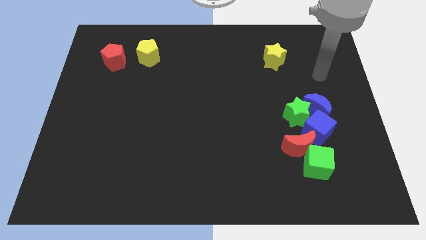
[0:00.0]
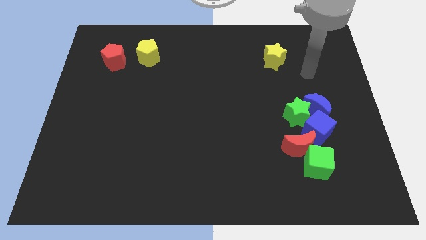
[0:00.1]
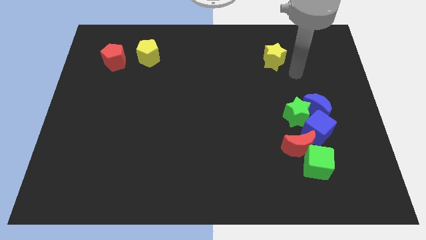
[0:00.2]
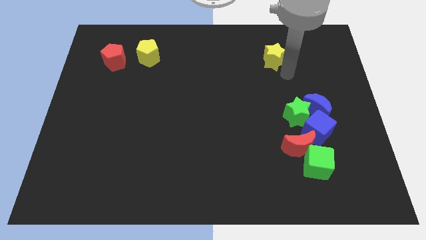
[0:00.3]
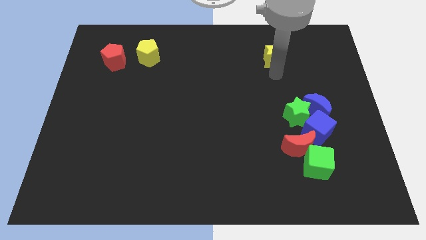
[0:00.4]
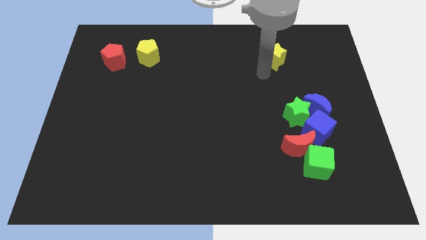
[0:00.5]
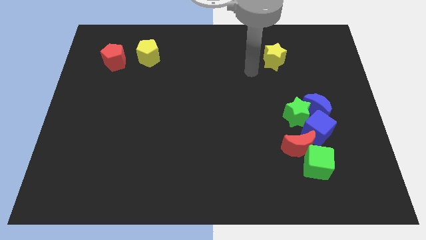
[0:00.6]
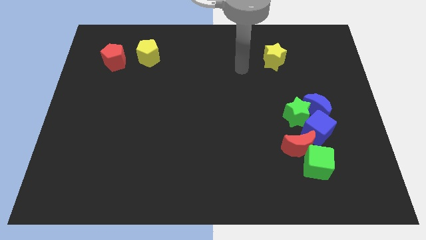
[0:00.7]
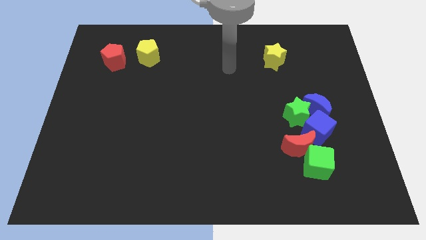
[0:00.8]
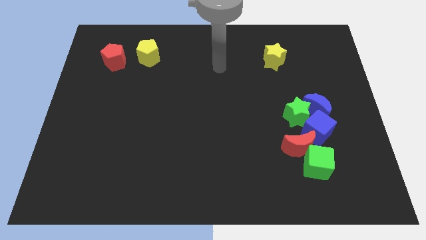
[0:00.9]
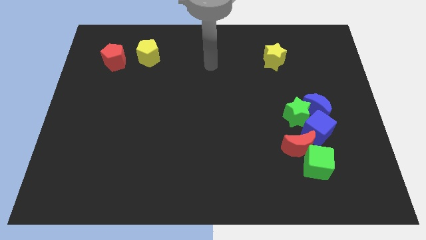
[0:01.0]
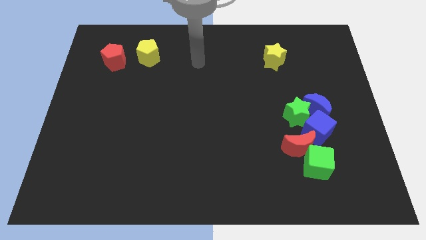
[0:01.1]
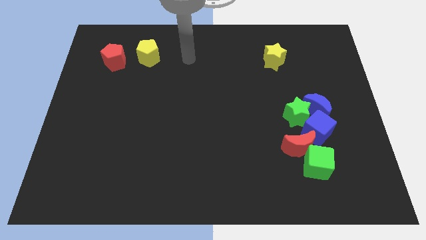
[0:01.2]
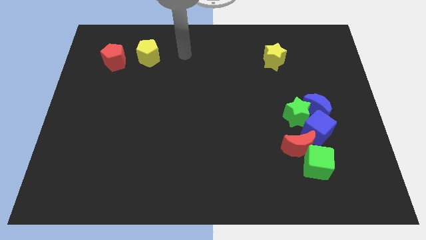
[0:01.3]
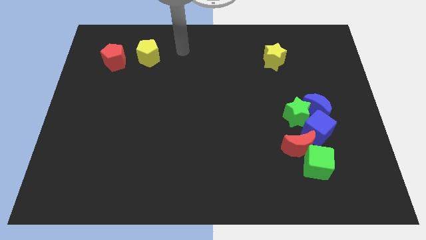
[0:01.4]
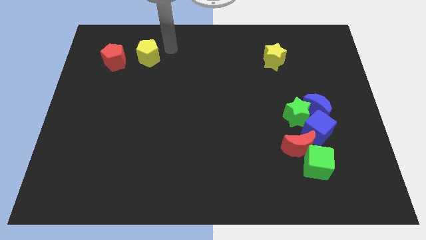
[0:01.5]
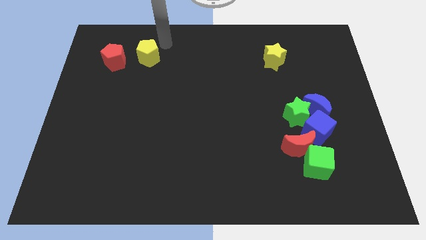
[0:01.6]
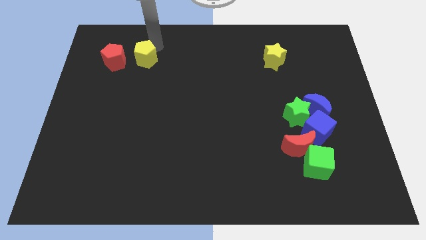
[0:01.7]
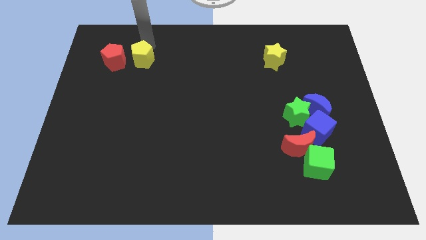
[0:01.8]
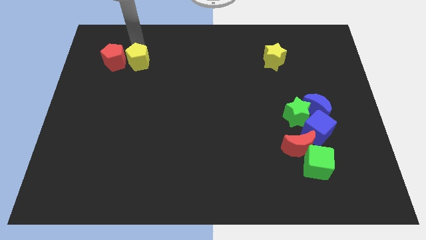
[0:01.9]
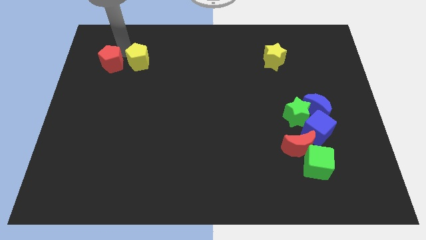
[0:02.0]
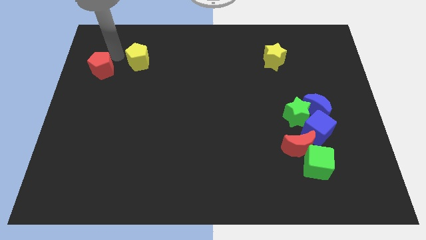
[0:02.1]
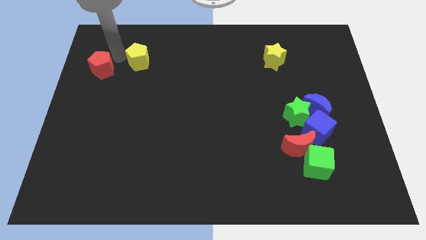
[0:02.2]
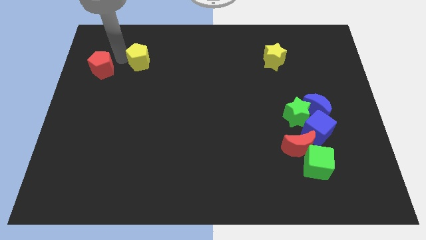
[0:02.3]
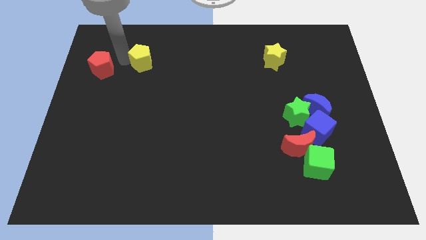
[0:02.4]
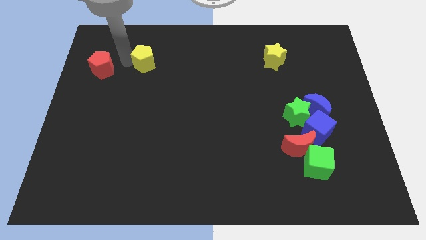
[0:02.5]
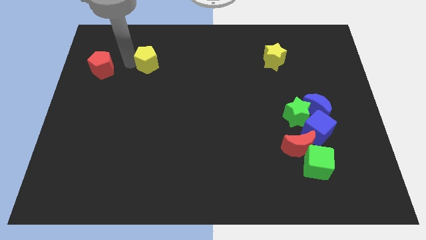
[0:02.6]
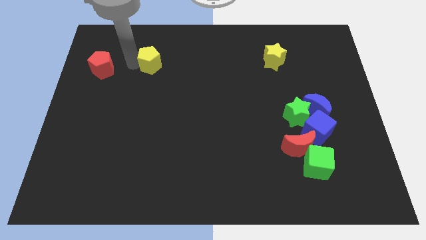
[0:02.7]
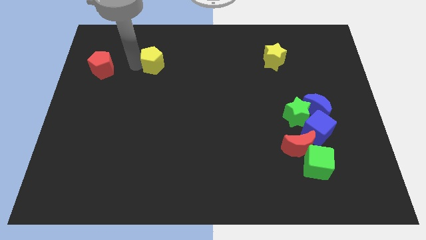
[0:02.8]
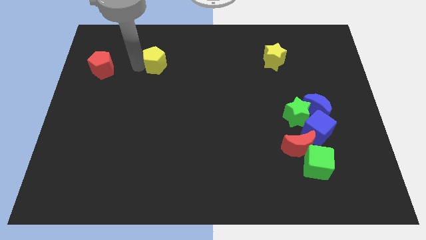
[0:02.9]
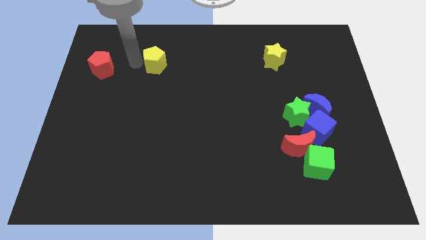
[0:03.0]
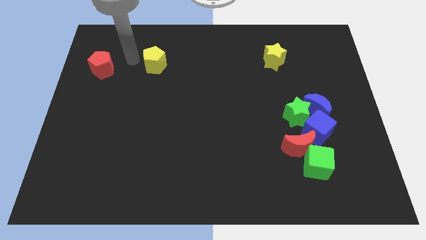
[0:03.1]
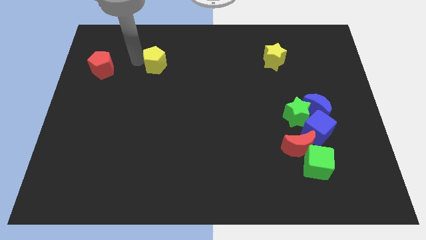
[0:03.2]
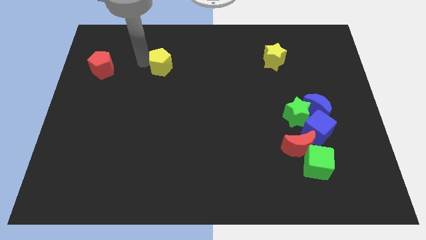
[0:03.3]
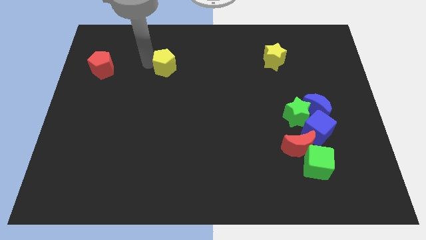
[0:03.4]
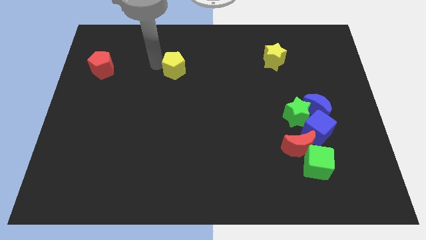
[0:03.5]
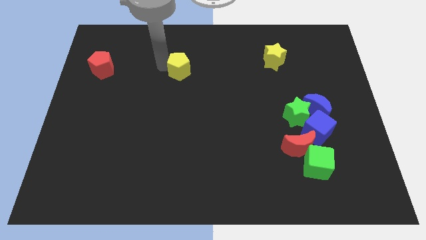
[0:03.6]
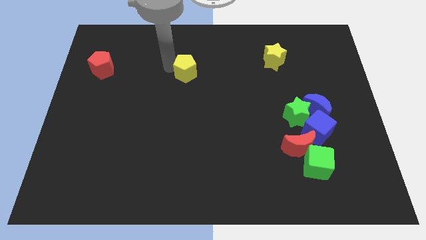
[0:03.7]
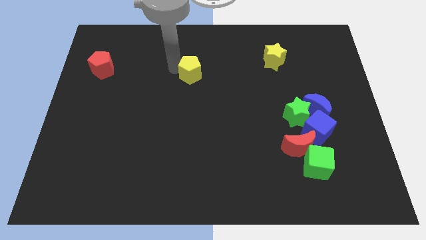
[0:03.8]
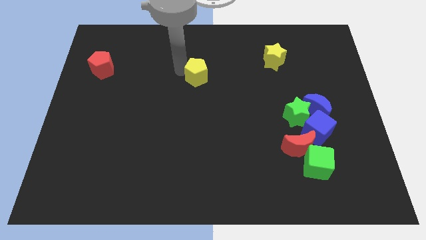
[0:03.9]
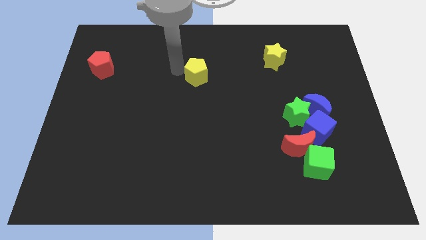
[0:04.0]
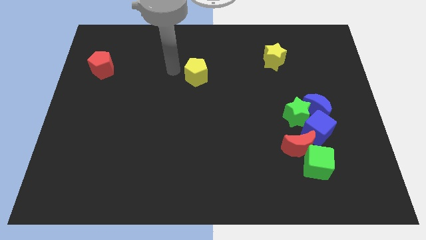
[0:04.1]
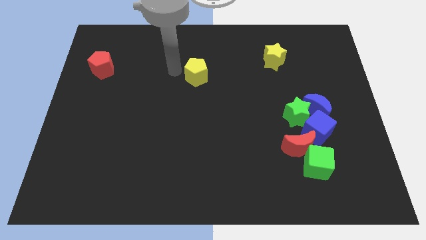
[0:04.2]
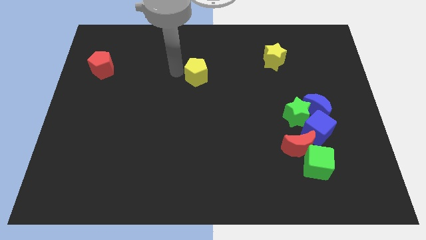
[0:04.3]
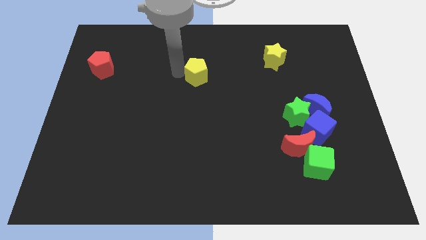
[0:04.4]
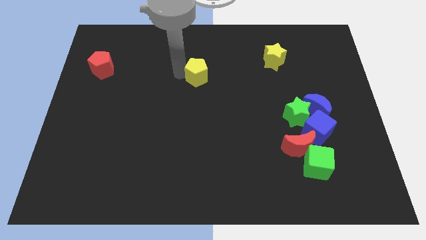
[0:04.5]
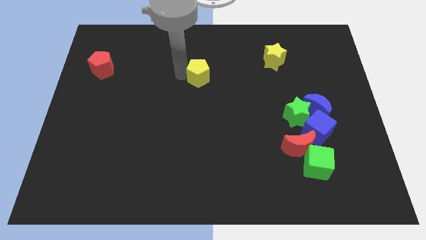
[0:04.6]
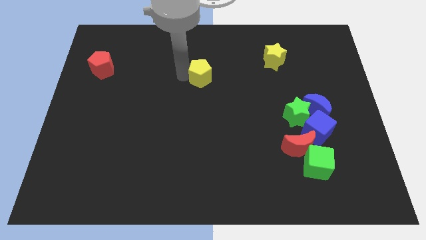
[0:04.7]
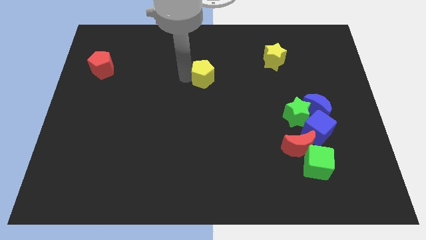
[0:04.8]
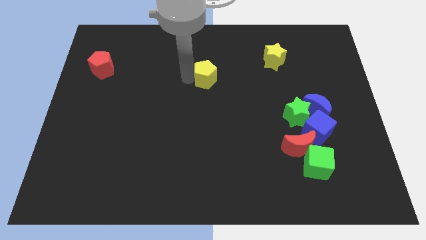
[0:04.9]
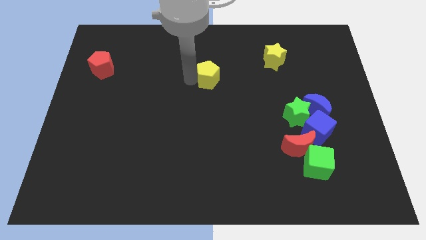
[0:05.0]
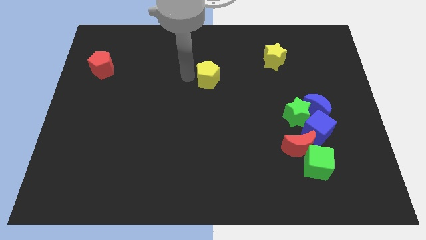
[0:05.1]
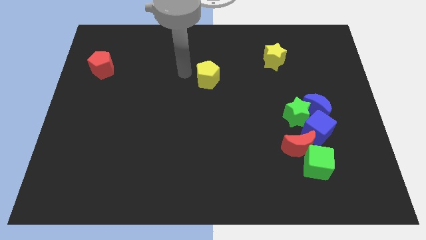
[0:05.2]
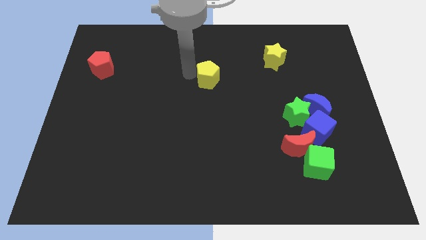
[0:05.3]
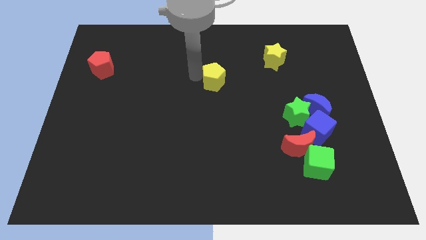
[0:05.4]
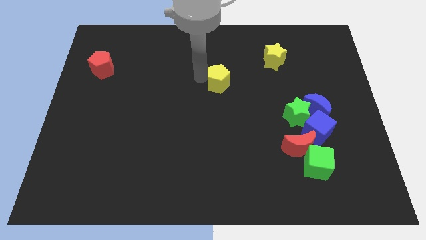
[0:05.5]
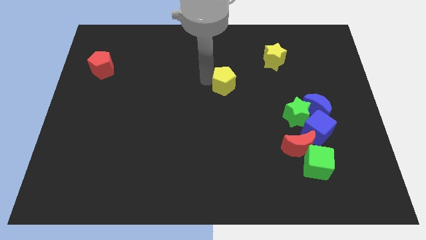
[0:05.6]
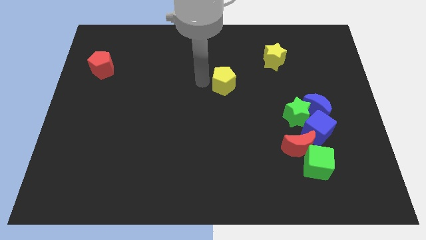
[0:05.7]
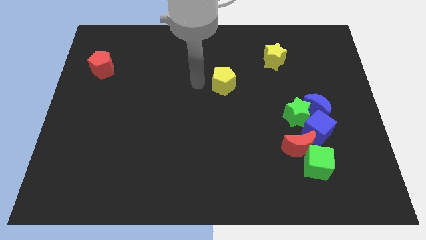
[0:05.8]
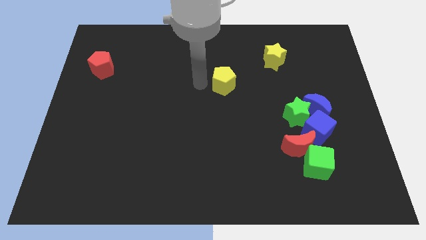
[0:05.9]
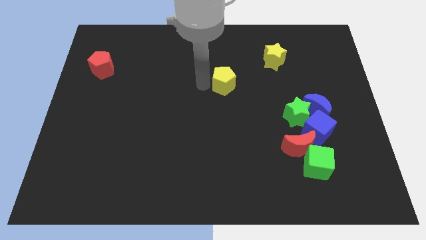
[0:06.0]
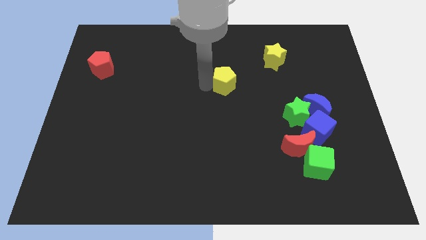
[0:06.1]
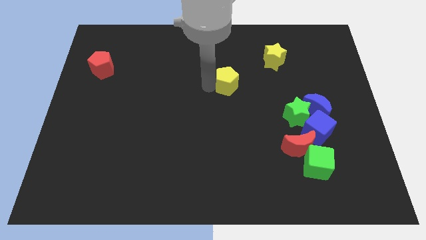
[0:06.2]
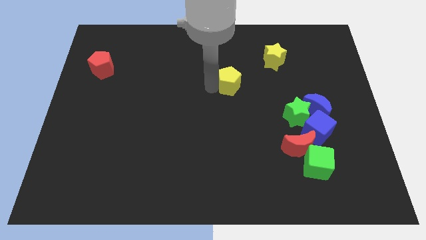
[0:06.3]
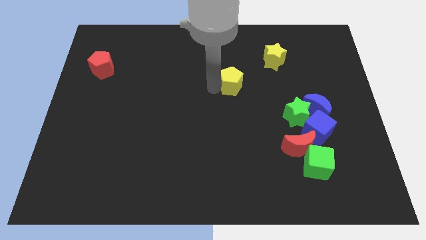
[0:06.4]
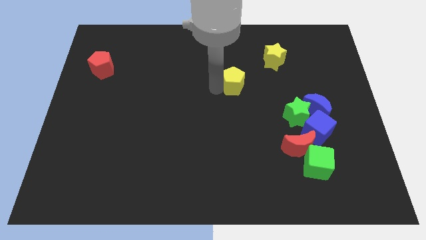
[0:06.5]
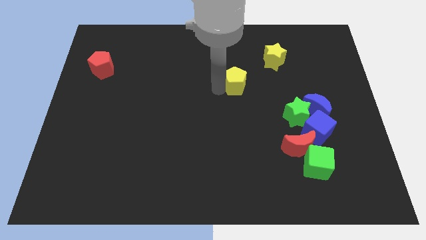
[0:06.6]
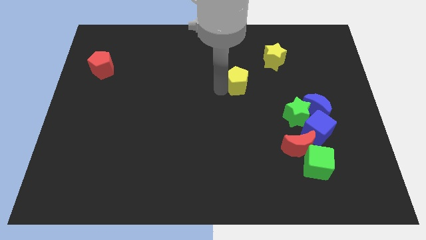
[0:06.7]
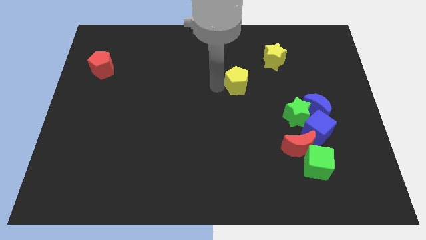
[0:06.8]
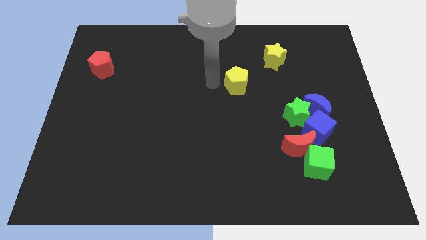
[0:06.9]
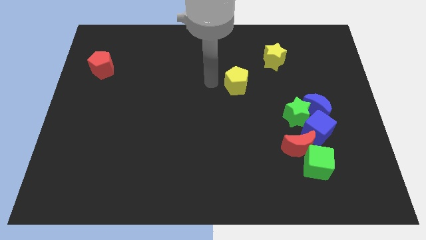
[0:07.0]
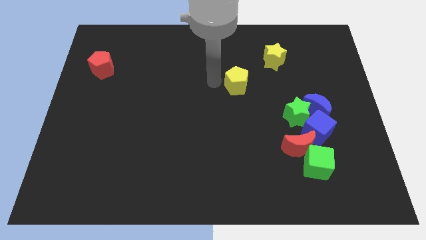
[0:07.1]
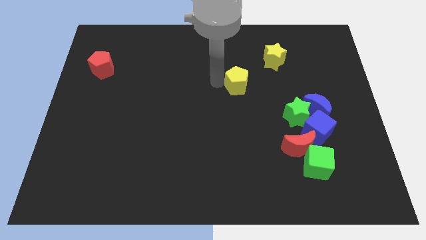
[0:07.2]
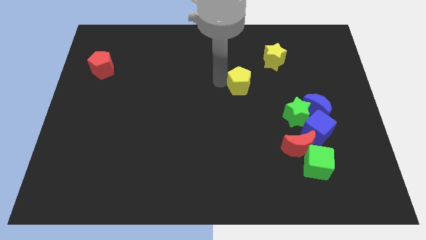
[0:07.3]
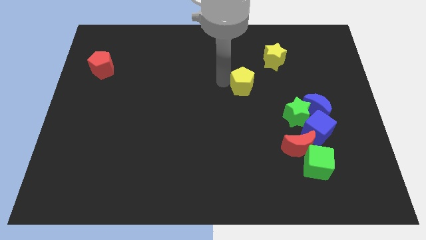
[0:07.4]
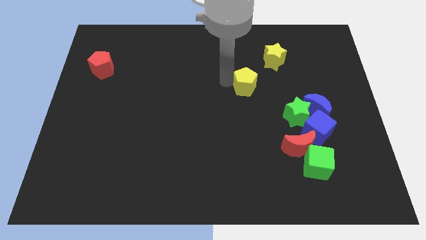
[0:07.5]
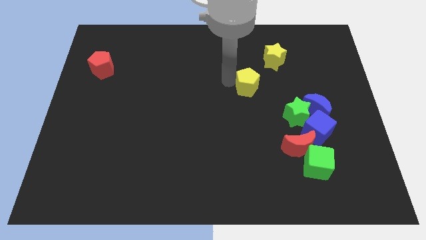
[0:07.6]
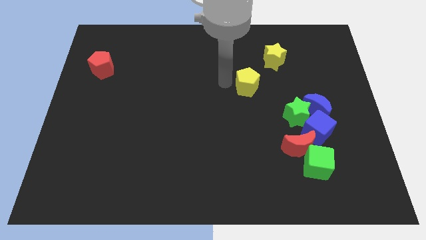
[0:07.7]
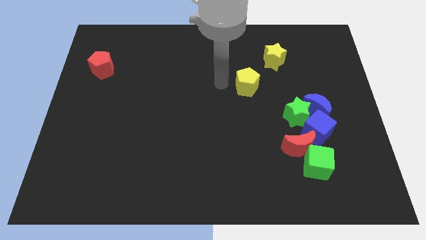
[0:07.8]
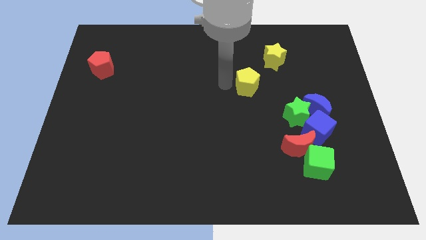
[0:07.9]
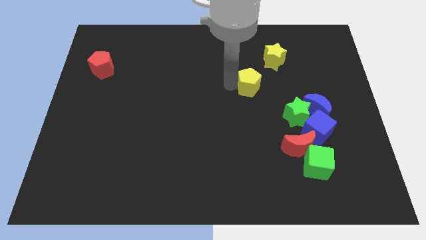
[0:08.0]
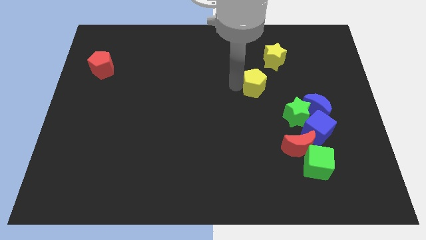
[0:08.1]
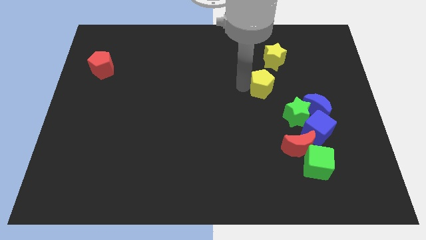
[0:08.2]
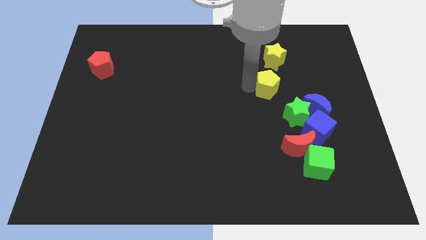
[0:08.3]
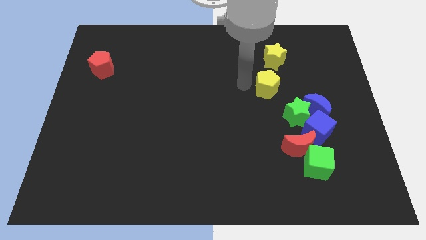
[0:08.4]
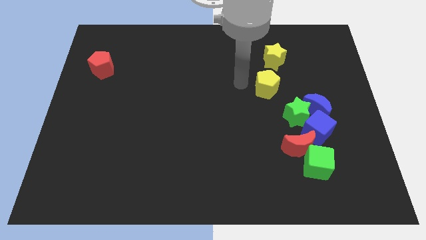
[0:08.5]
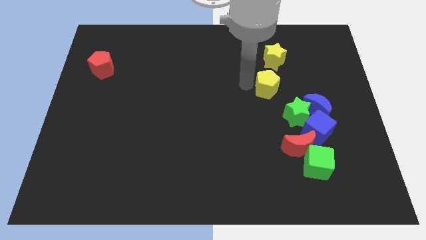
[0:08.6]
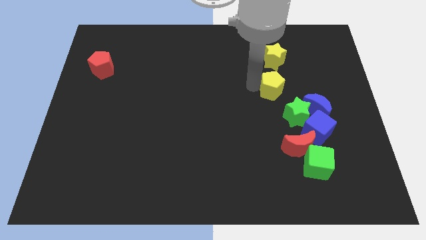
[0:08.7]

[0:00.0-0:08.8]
push the yellow pentagon to the top left side of the blue moon
